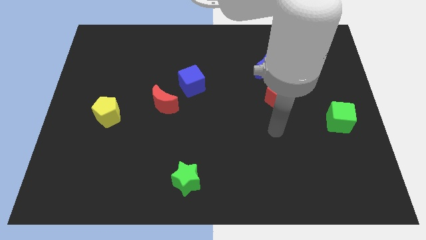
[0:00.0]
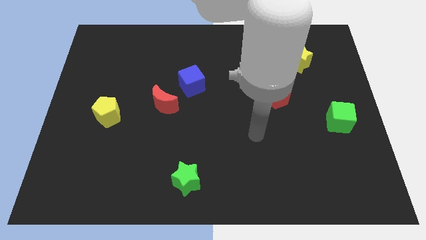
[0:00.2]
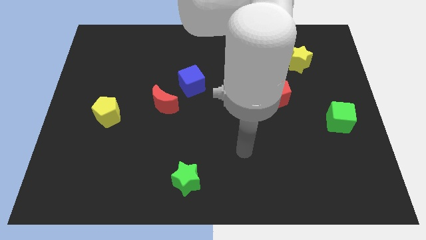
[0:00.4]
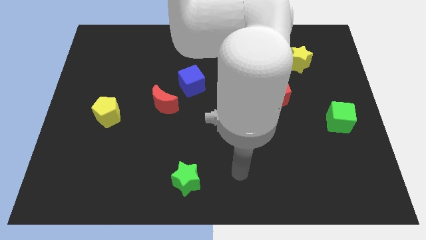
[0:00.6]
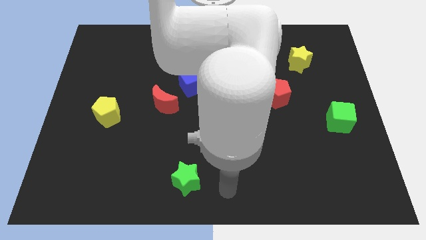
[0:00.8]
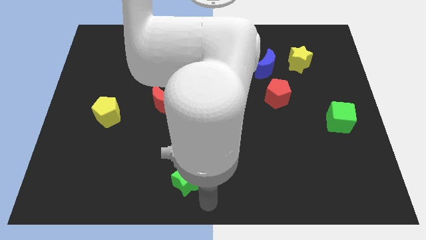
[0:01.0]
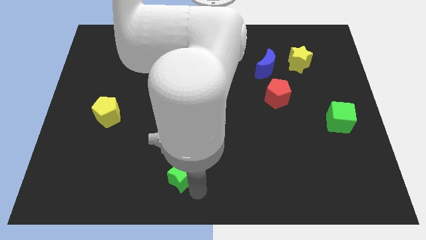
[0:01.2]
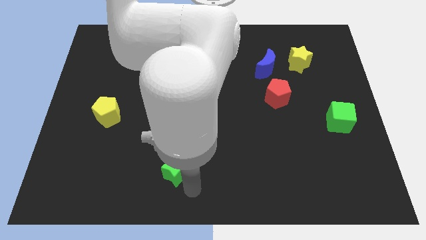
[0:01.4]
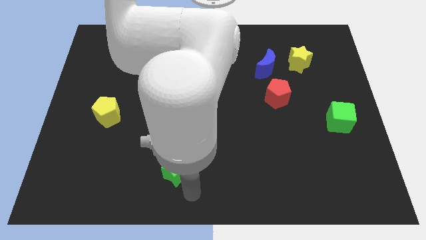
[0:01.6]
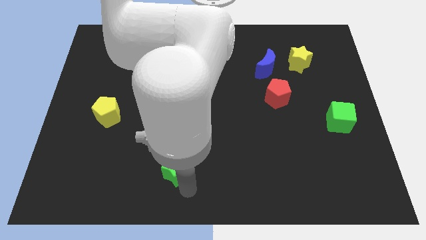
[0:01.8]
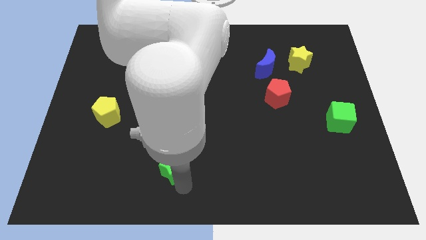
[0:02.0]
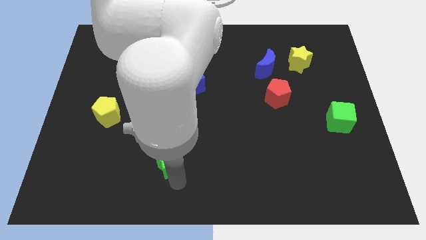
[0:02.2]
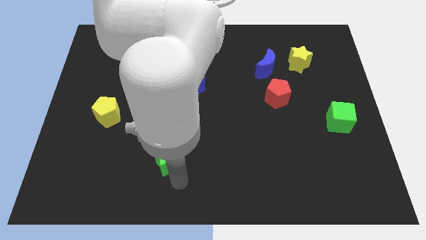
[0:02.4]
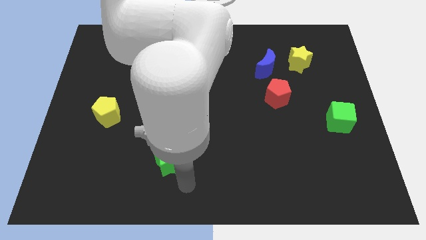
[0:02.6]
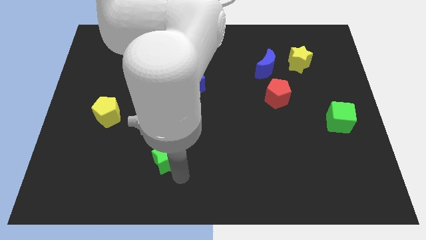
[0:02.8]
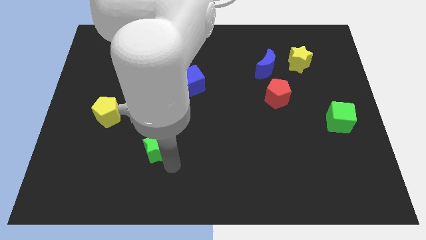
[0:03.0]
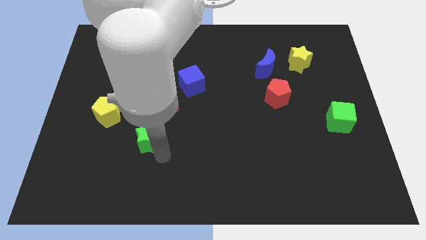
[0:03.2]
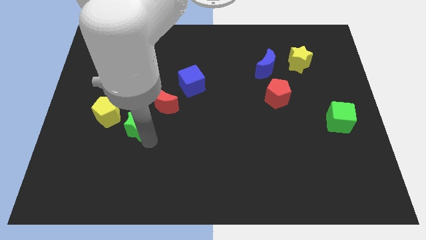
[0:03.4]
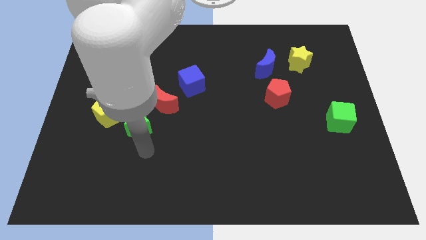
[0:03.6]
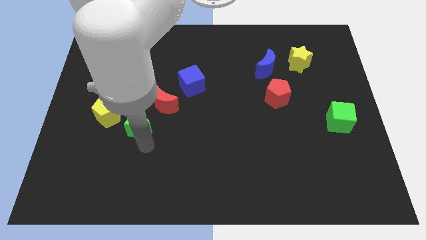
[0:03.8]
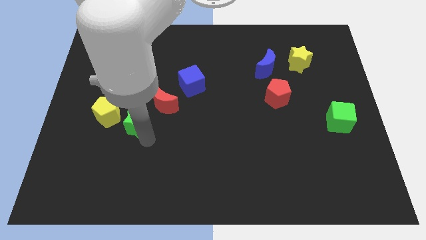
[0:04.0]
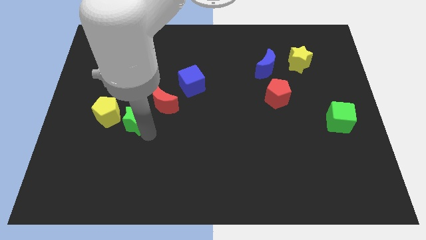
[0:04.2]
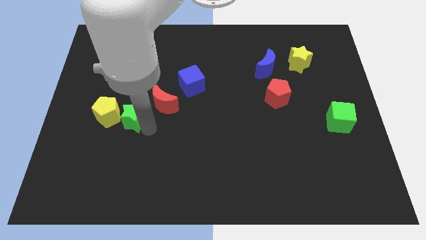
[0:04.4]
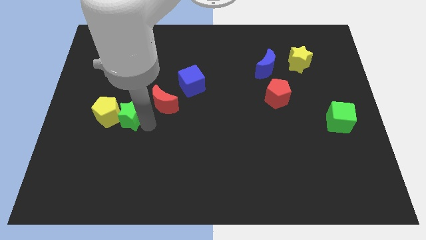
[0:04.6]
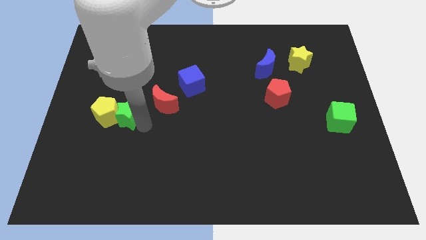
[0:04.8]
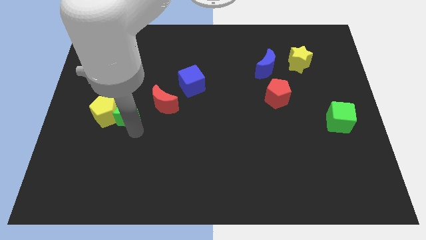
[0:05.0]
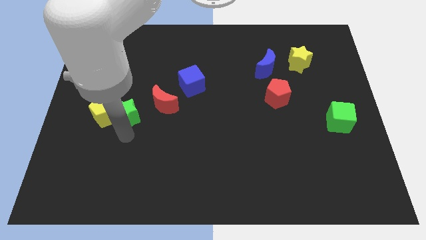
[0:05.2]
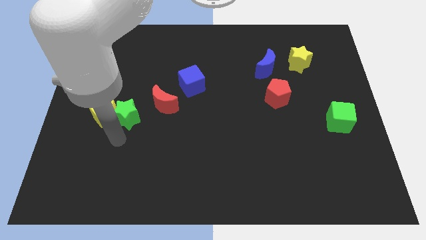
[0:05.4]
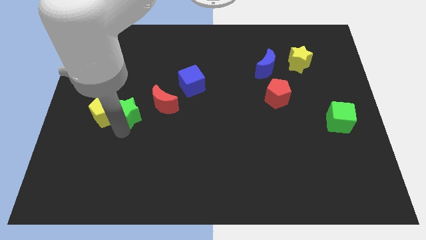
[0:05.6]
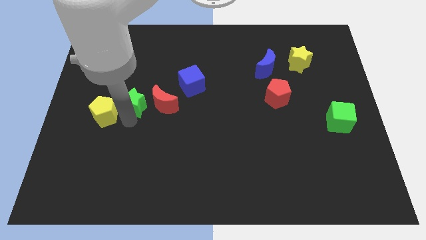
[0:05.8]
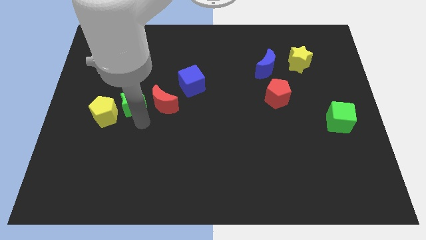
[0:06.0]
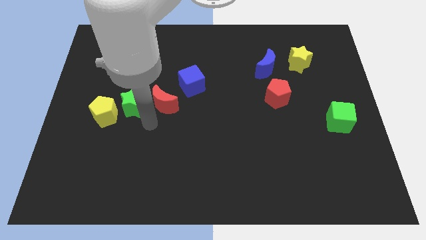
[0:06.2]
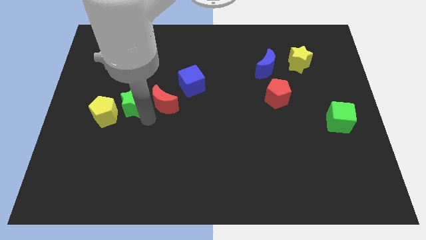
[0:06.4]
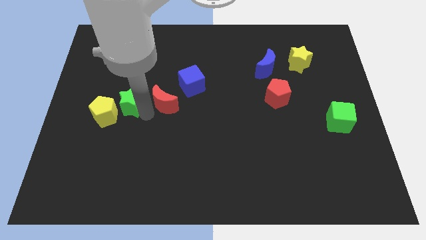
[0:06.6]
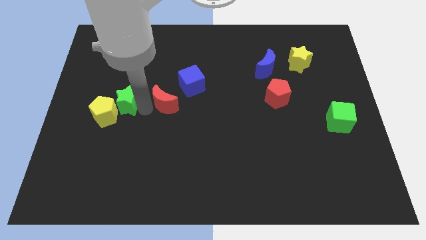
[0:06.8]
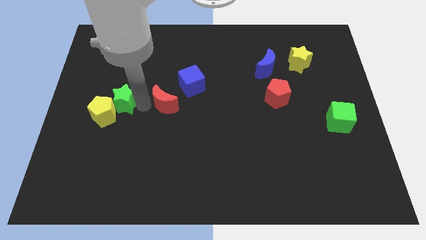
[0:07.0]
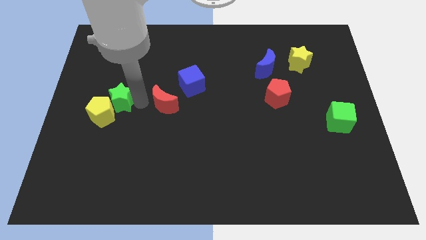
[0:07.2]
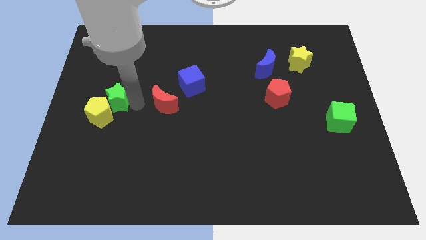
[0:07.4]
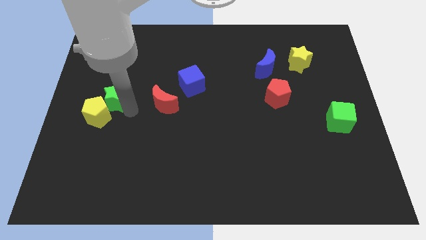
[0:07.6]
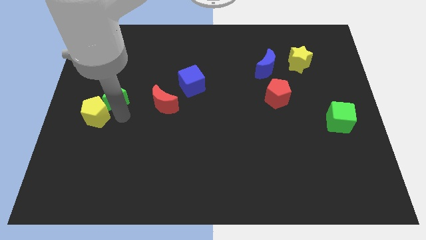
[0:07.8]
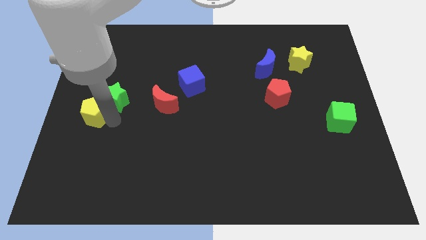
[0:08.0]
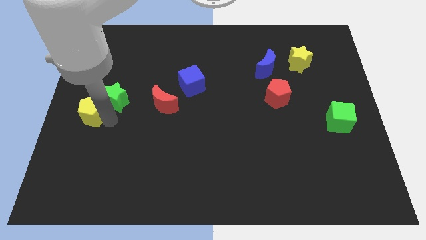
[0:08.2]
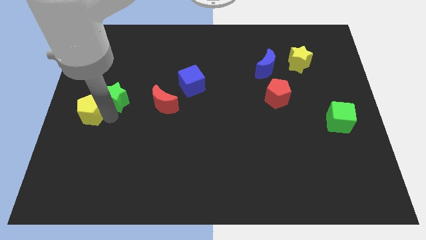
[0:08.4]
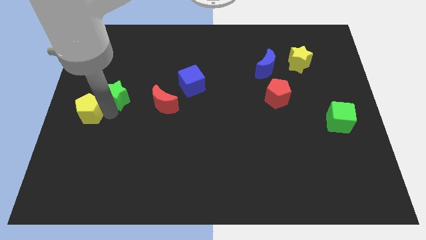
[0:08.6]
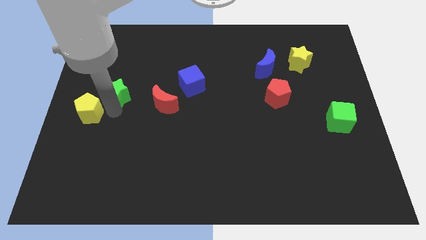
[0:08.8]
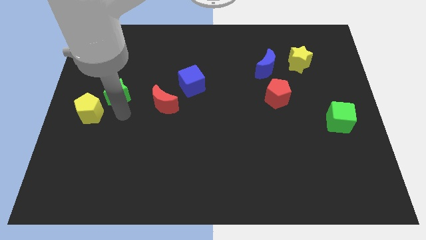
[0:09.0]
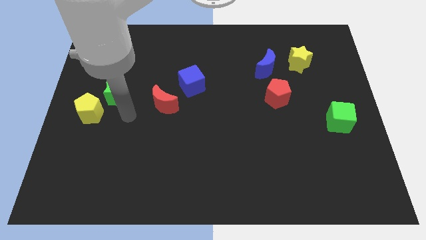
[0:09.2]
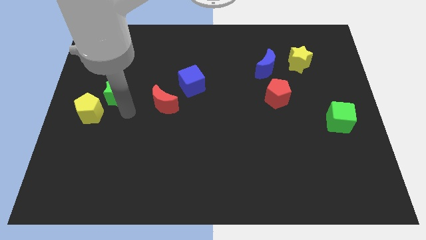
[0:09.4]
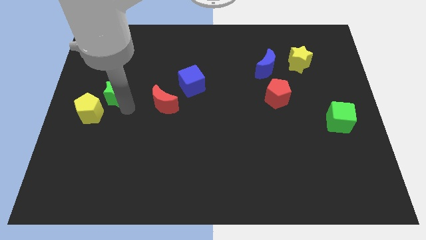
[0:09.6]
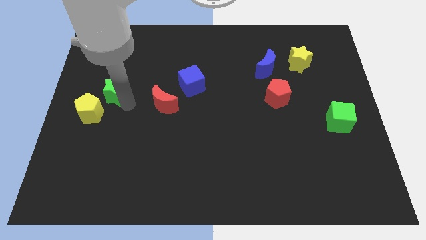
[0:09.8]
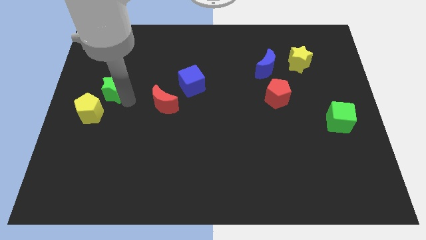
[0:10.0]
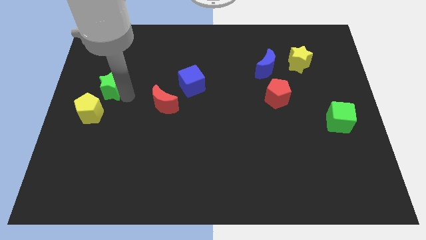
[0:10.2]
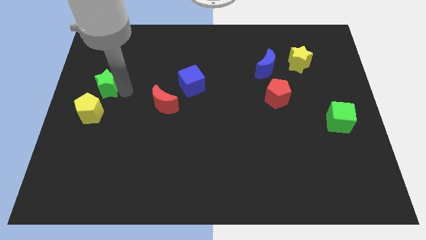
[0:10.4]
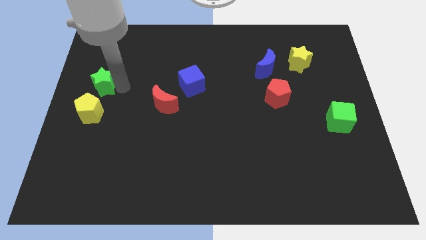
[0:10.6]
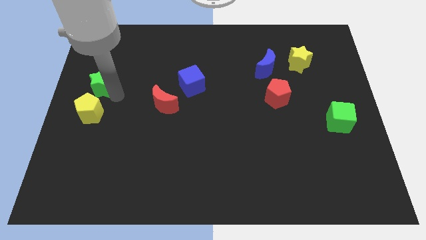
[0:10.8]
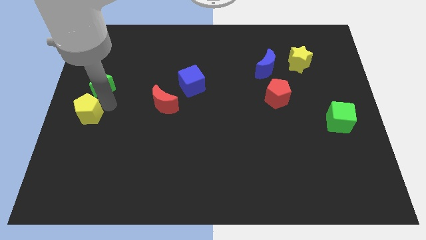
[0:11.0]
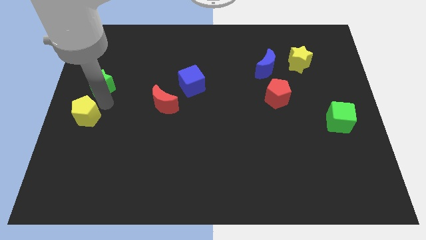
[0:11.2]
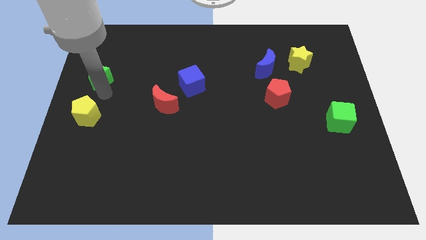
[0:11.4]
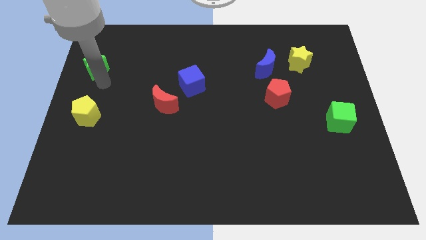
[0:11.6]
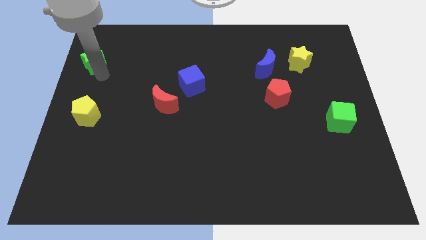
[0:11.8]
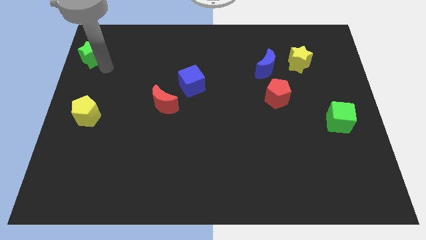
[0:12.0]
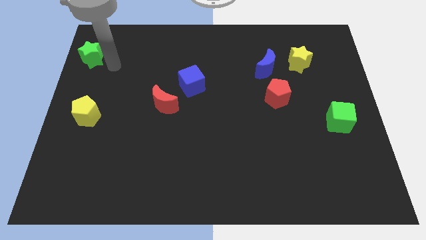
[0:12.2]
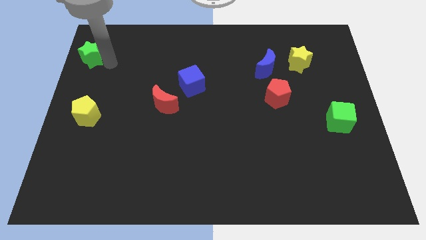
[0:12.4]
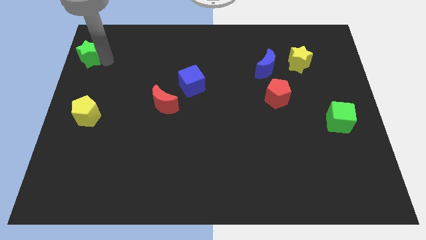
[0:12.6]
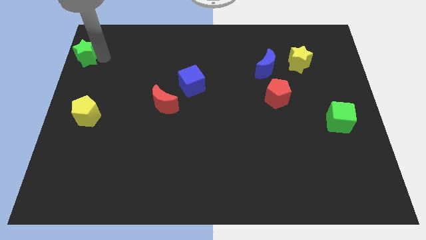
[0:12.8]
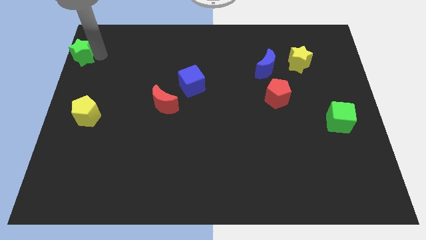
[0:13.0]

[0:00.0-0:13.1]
push the green star to the top left of the board

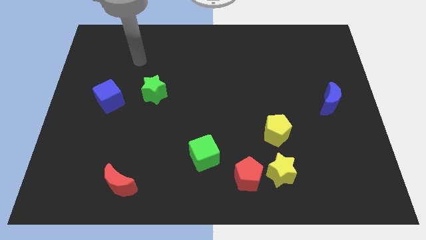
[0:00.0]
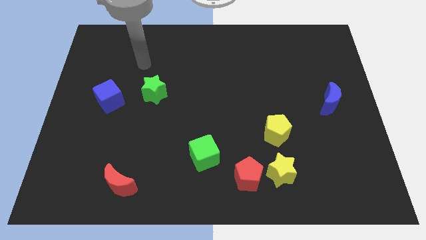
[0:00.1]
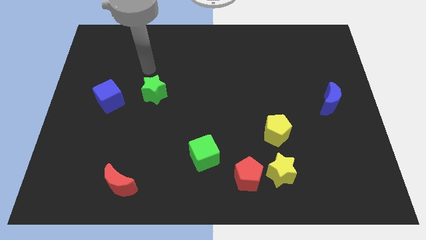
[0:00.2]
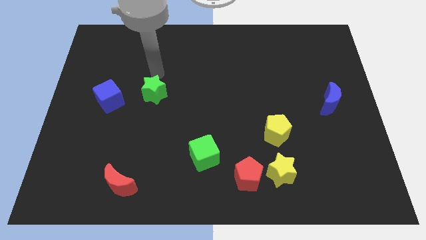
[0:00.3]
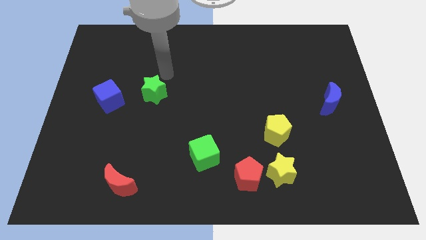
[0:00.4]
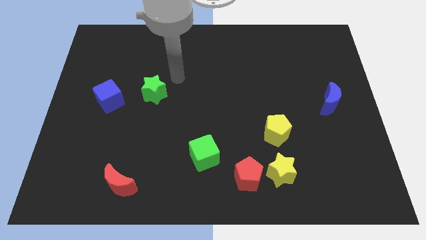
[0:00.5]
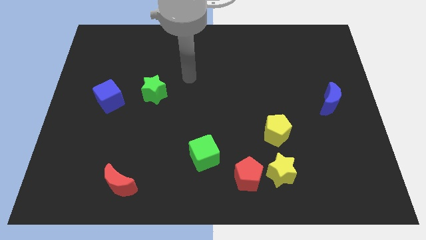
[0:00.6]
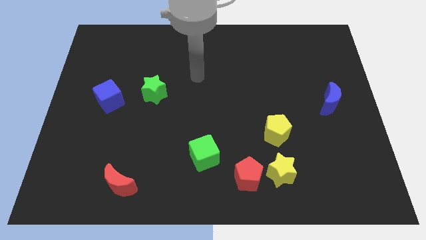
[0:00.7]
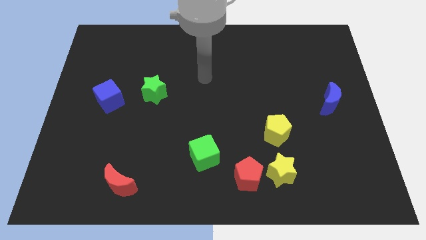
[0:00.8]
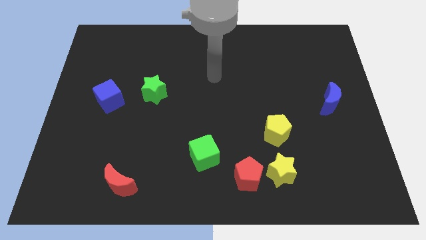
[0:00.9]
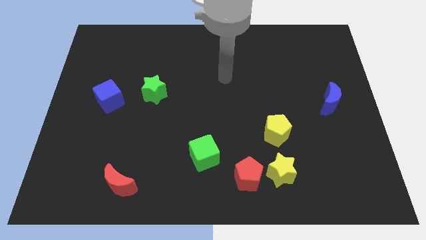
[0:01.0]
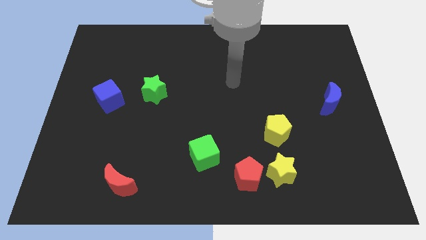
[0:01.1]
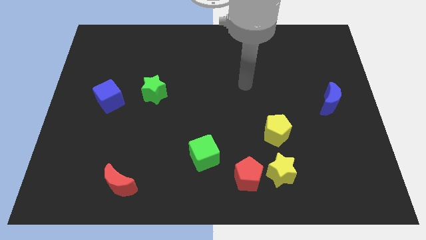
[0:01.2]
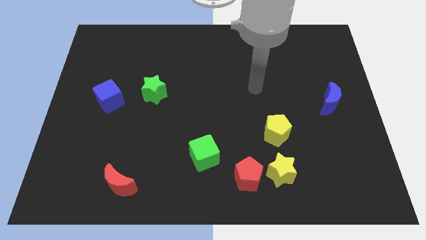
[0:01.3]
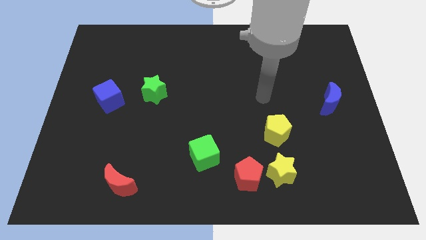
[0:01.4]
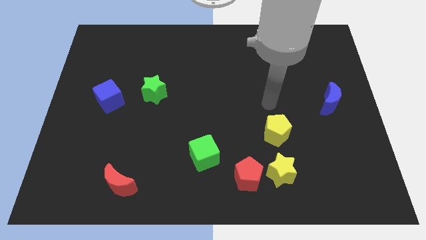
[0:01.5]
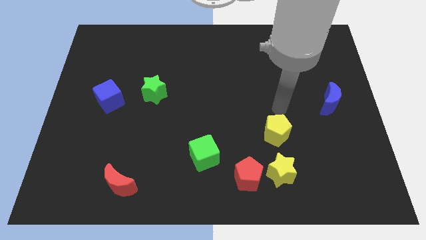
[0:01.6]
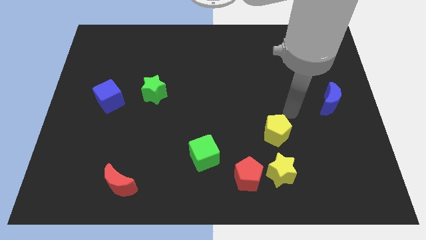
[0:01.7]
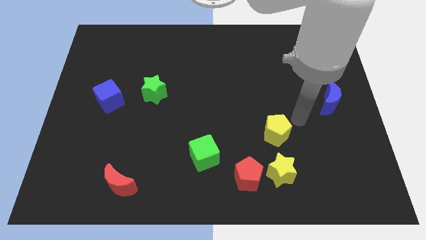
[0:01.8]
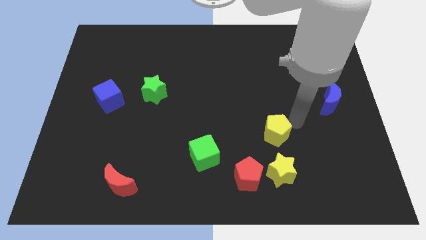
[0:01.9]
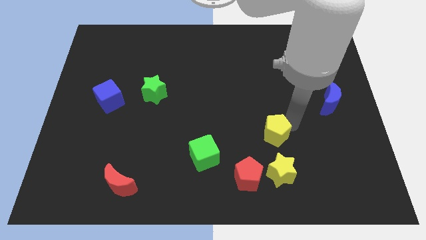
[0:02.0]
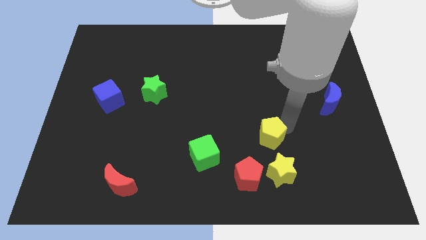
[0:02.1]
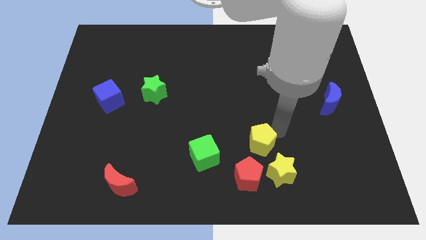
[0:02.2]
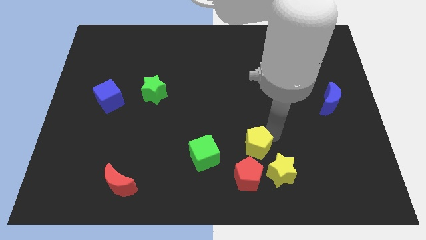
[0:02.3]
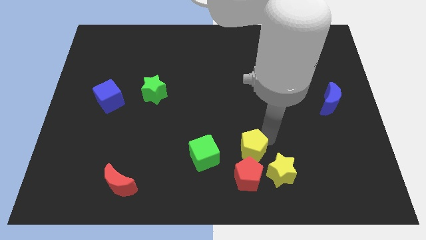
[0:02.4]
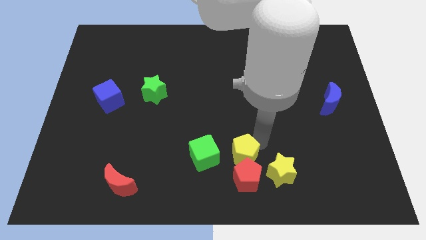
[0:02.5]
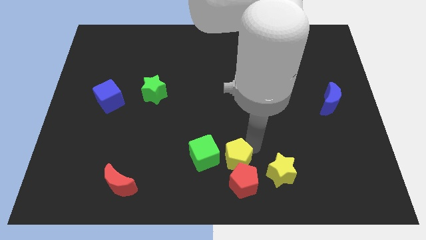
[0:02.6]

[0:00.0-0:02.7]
slide the yellow pentagon to the bottom
